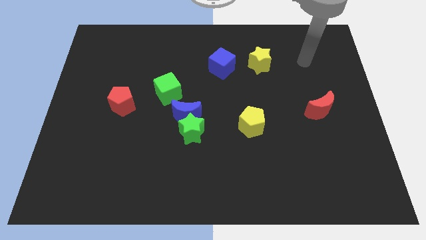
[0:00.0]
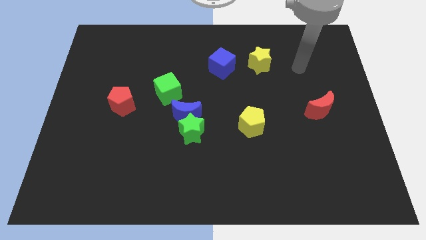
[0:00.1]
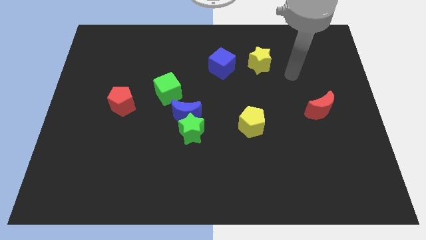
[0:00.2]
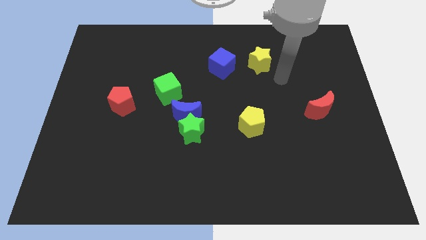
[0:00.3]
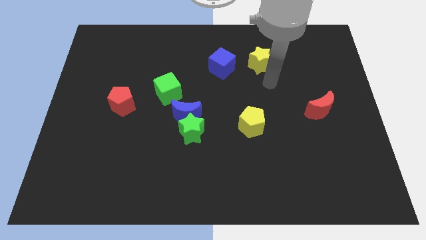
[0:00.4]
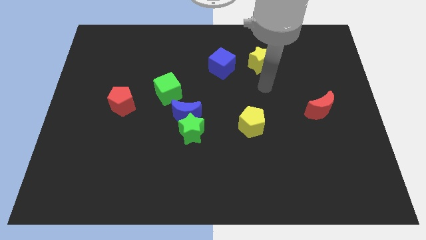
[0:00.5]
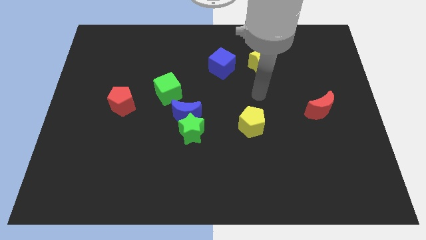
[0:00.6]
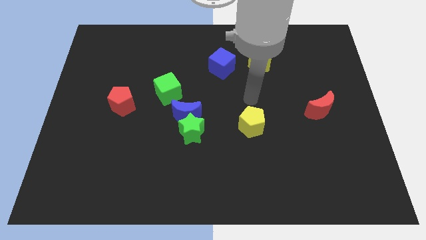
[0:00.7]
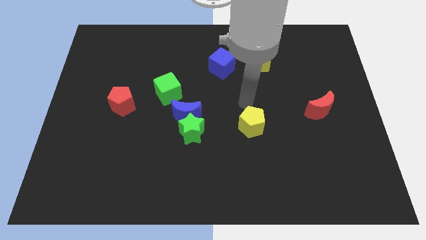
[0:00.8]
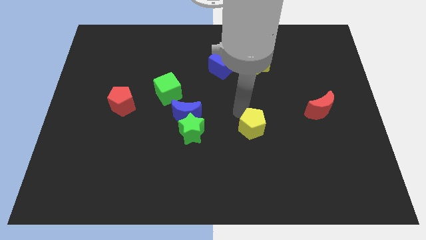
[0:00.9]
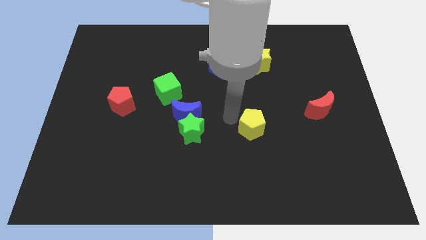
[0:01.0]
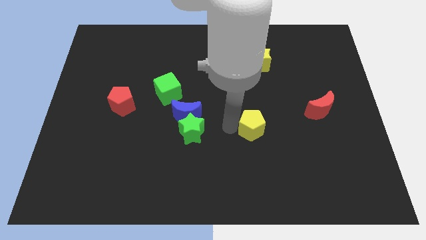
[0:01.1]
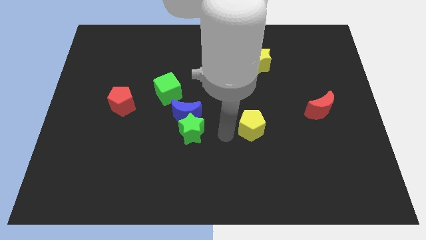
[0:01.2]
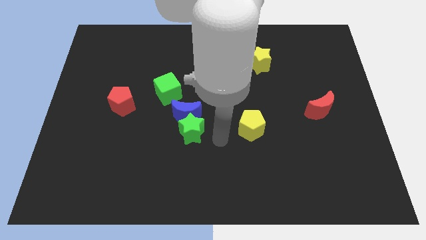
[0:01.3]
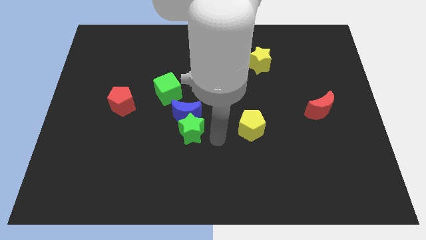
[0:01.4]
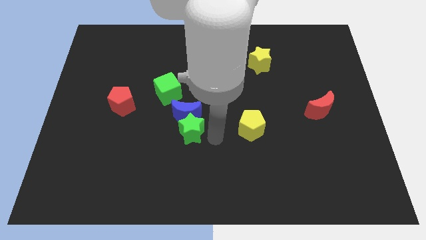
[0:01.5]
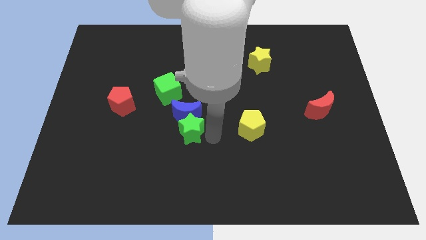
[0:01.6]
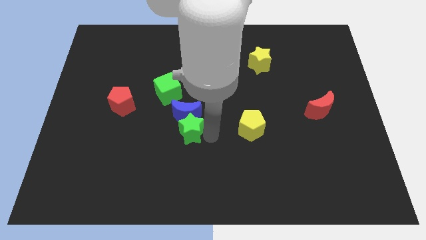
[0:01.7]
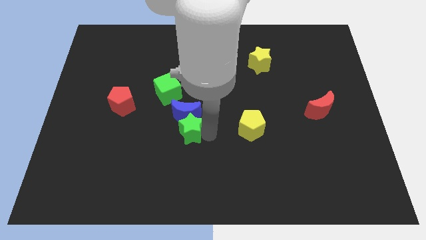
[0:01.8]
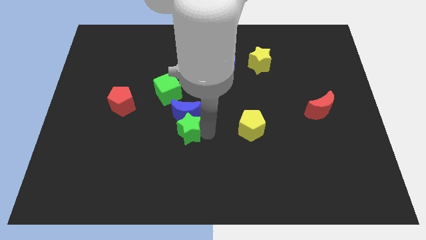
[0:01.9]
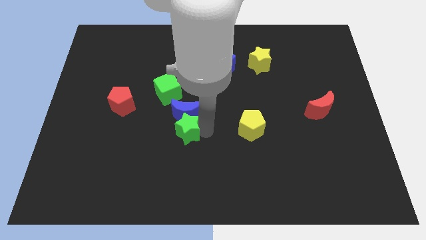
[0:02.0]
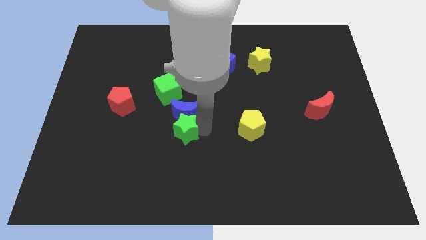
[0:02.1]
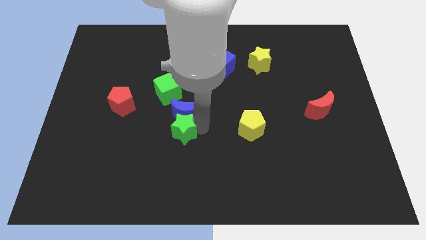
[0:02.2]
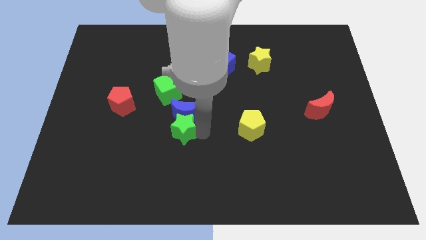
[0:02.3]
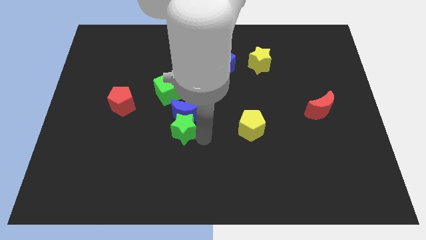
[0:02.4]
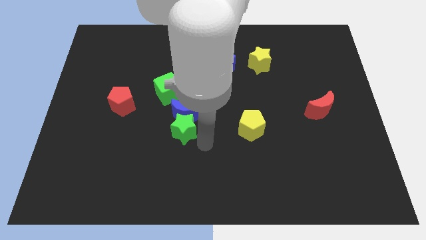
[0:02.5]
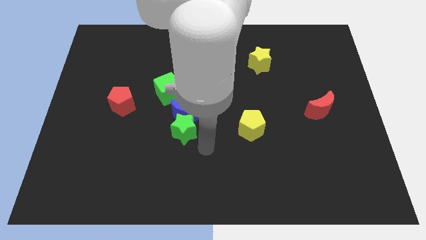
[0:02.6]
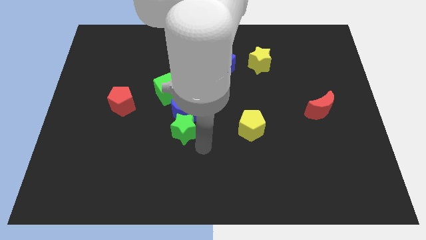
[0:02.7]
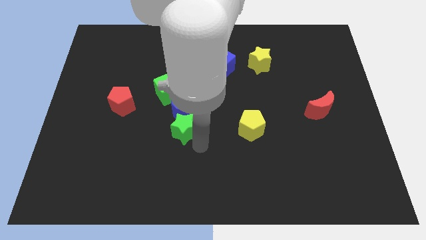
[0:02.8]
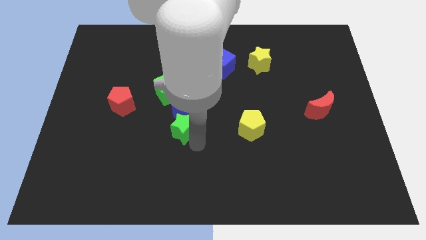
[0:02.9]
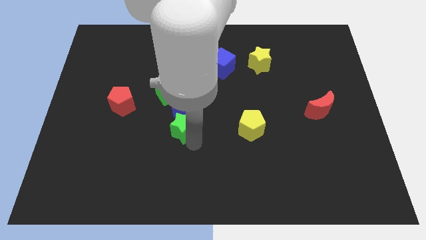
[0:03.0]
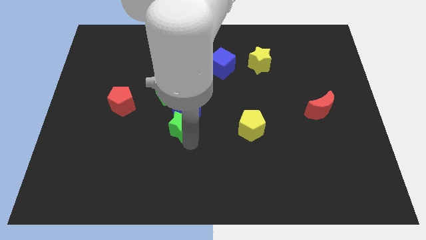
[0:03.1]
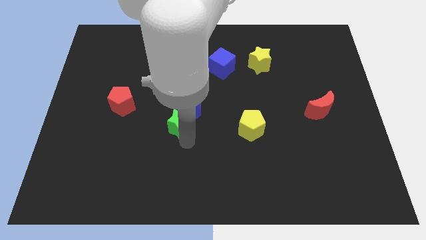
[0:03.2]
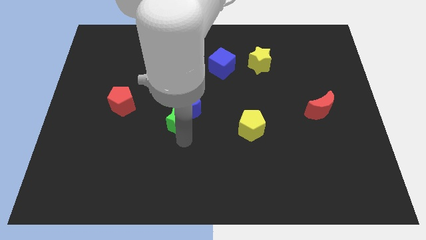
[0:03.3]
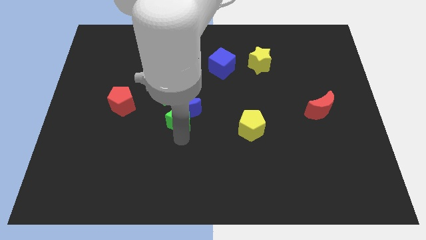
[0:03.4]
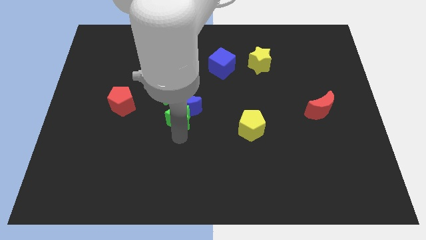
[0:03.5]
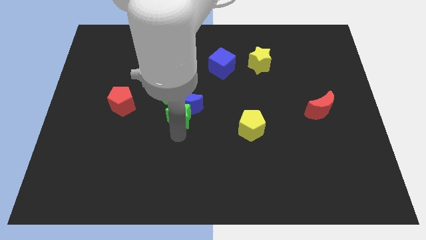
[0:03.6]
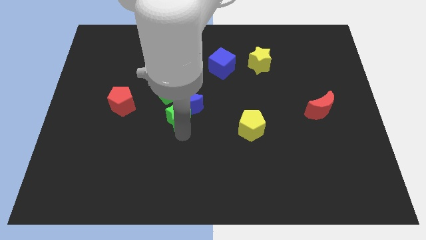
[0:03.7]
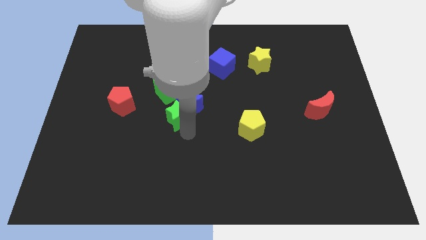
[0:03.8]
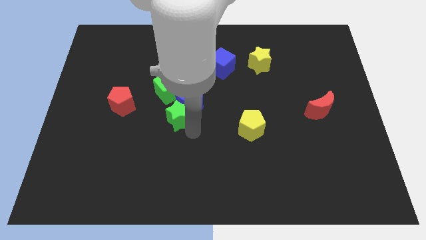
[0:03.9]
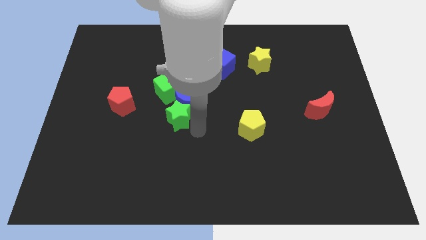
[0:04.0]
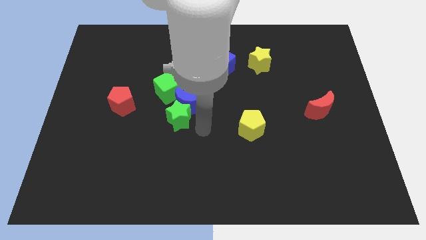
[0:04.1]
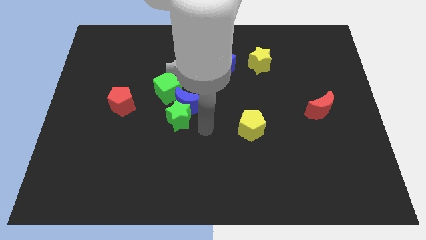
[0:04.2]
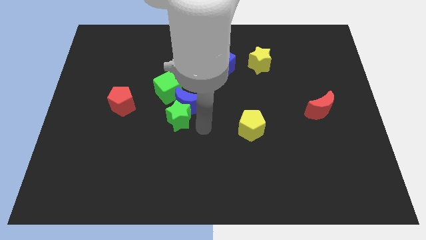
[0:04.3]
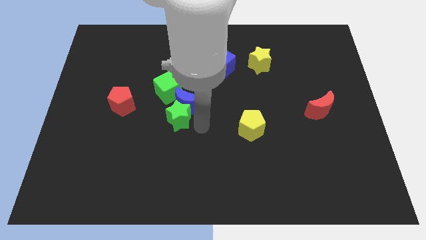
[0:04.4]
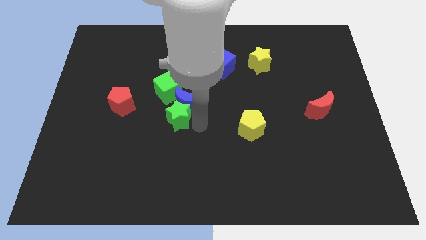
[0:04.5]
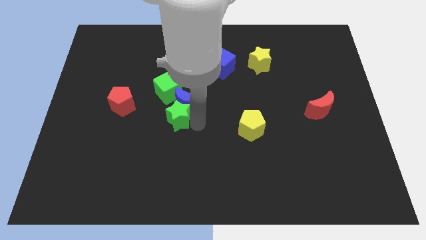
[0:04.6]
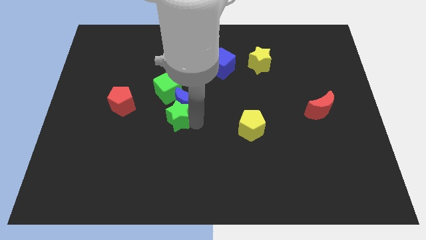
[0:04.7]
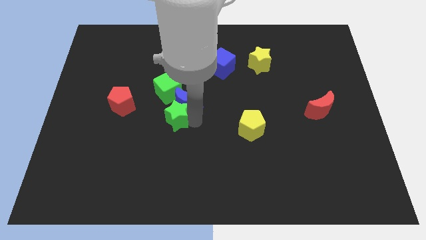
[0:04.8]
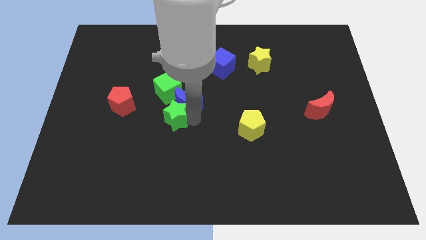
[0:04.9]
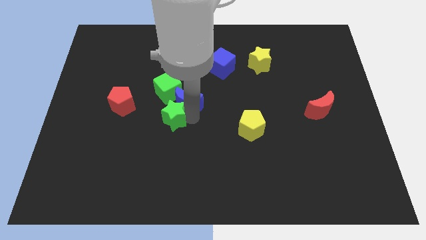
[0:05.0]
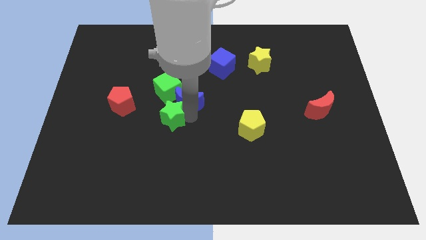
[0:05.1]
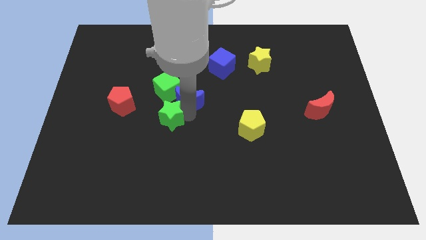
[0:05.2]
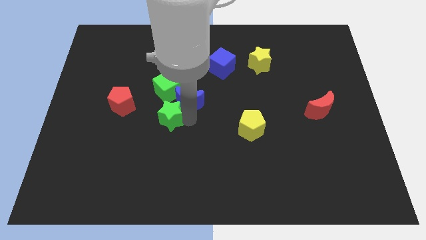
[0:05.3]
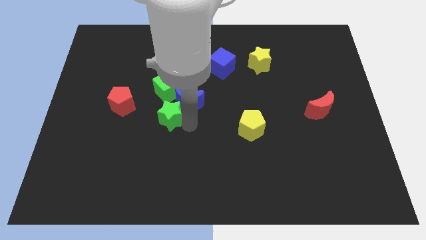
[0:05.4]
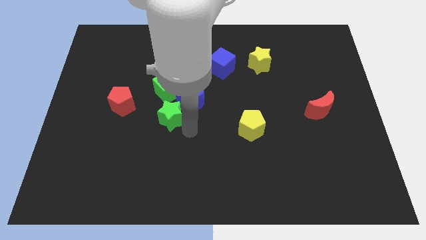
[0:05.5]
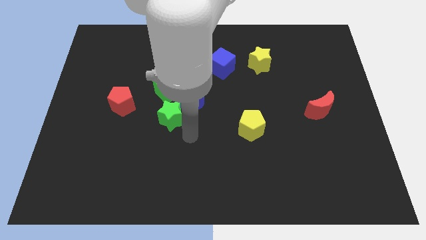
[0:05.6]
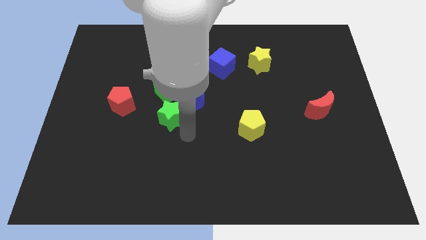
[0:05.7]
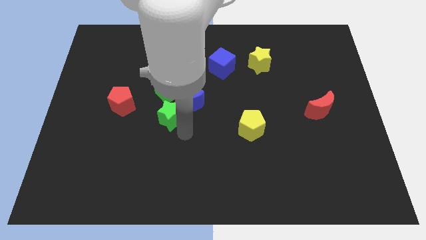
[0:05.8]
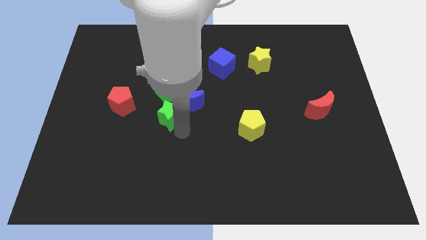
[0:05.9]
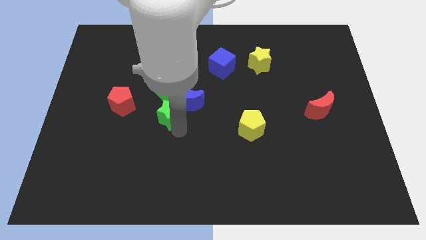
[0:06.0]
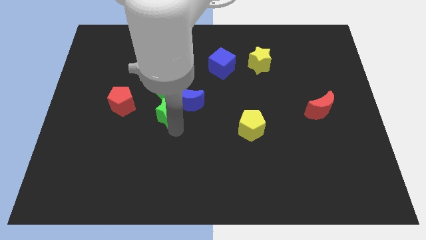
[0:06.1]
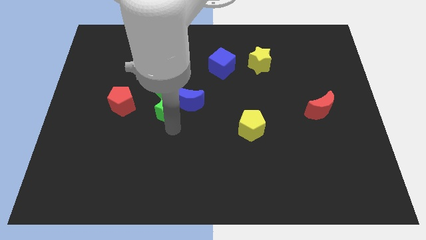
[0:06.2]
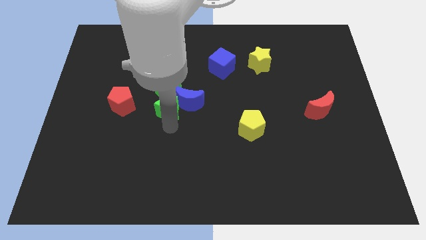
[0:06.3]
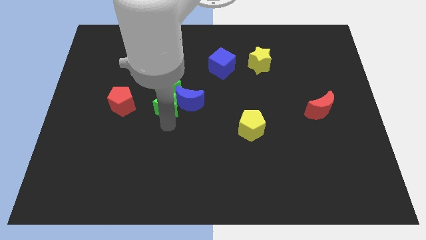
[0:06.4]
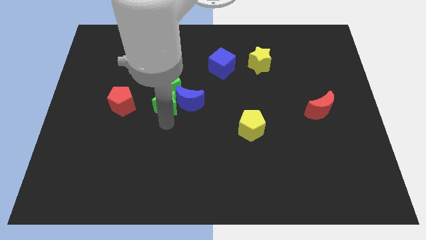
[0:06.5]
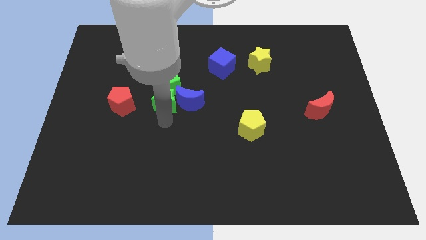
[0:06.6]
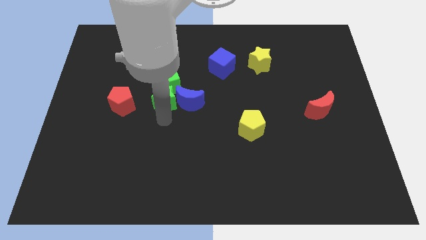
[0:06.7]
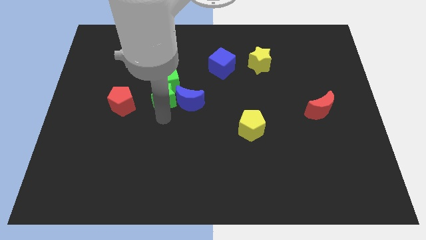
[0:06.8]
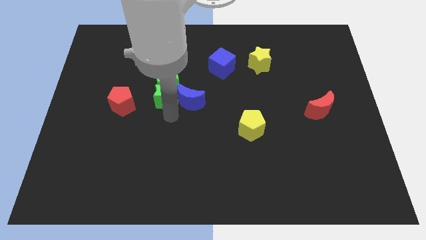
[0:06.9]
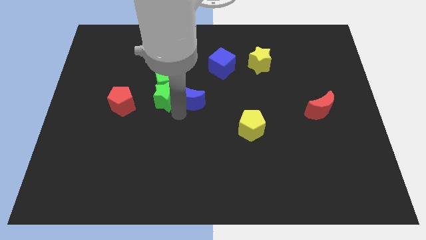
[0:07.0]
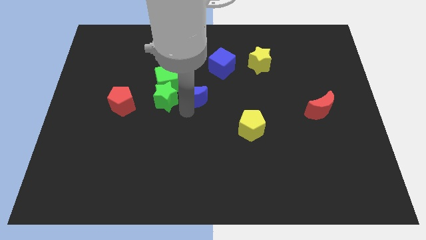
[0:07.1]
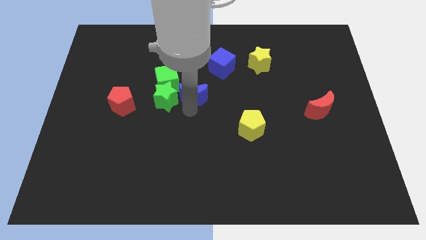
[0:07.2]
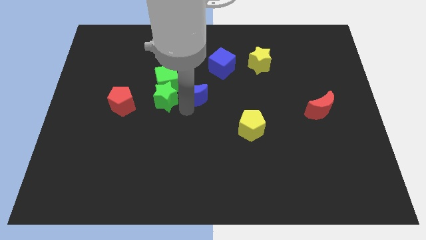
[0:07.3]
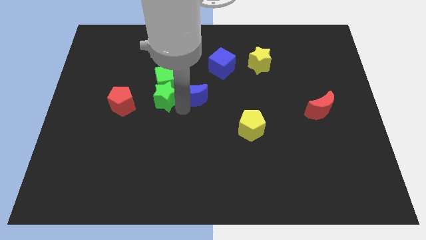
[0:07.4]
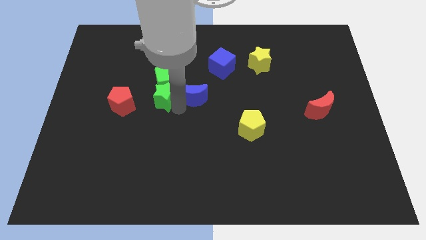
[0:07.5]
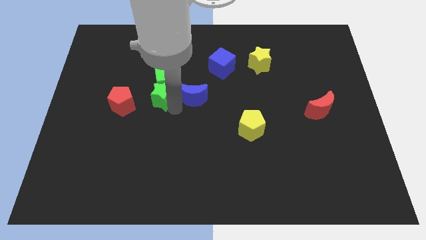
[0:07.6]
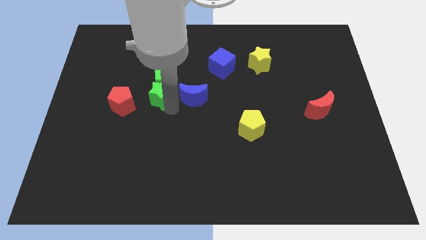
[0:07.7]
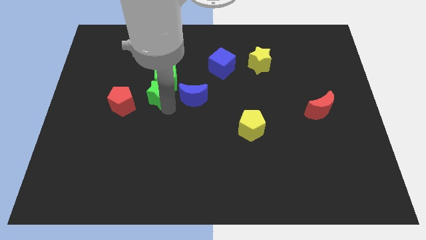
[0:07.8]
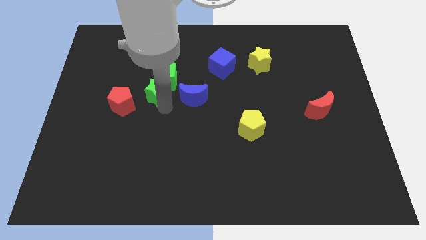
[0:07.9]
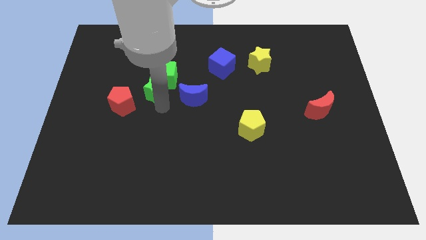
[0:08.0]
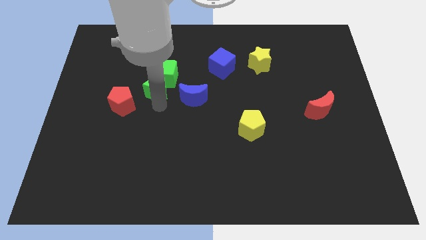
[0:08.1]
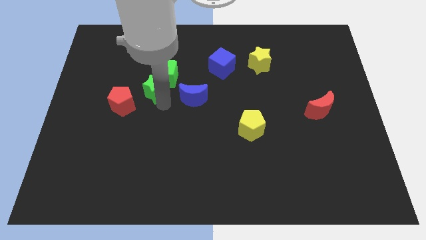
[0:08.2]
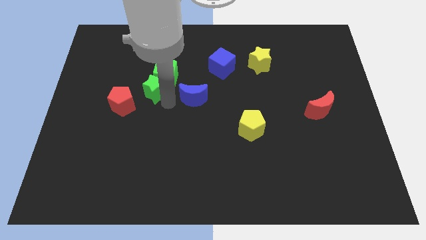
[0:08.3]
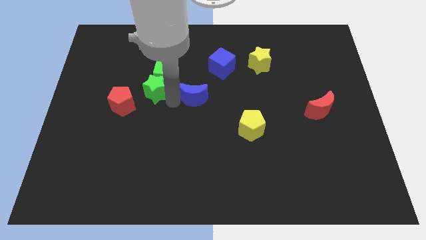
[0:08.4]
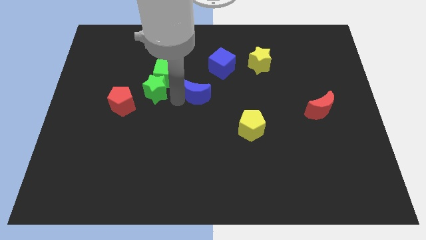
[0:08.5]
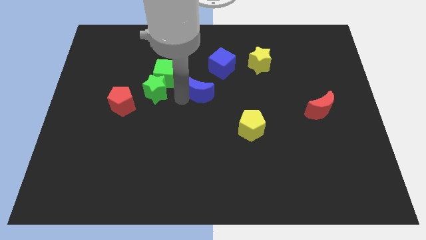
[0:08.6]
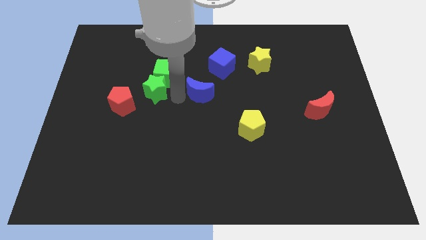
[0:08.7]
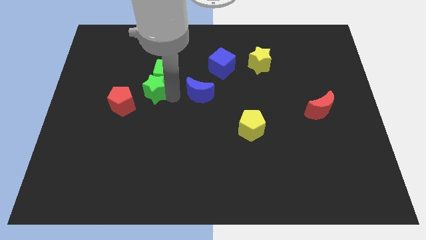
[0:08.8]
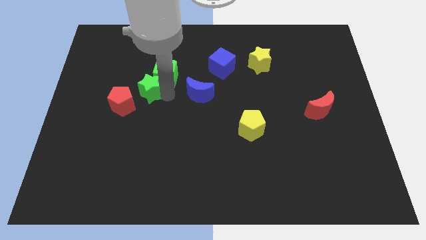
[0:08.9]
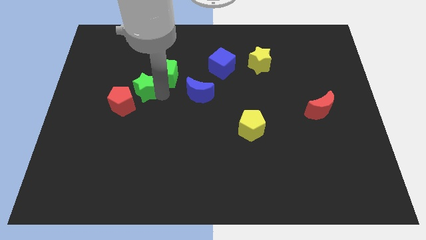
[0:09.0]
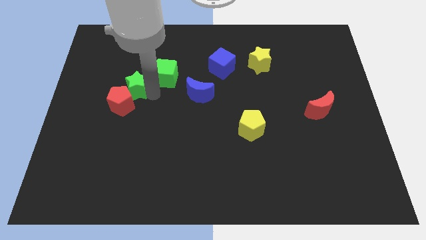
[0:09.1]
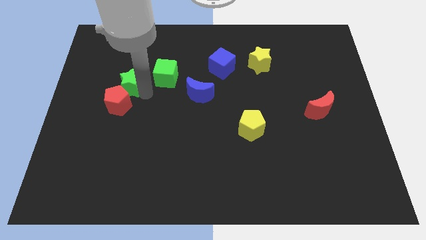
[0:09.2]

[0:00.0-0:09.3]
slide the green star up and to the left diagonally
